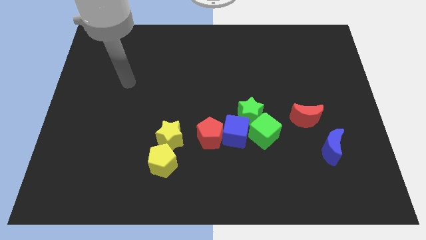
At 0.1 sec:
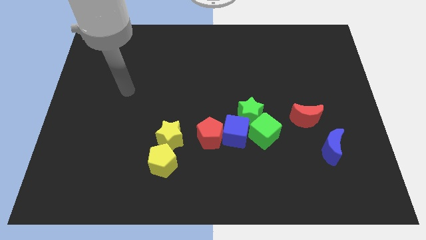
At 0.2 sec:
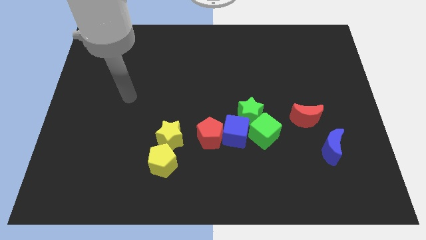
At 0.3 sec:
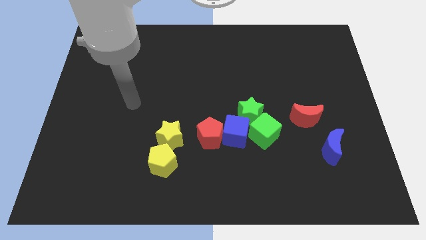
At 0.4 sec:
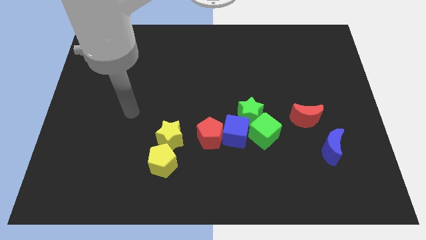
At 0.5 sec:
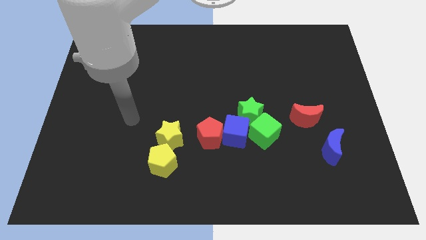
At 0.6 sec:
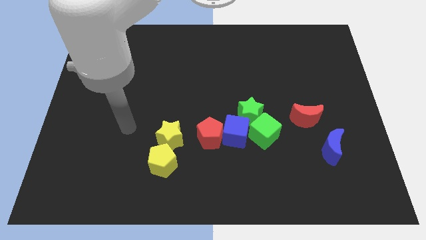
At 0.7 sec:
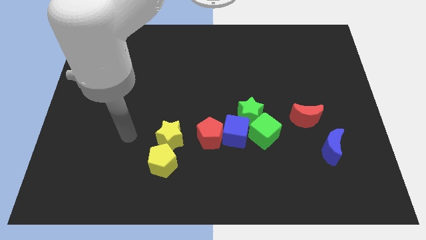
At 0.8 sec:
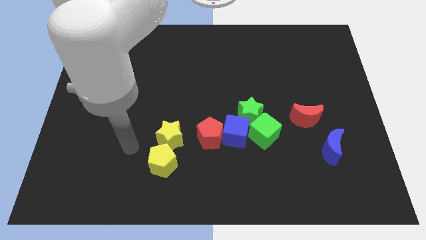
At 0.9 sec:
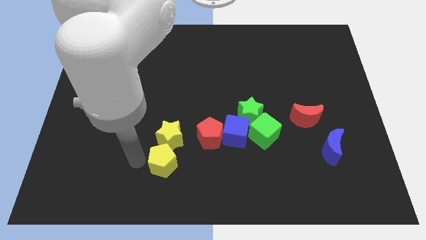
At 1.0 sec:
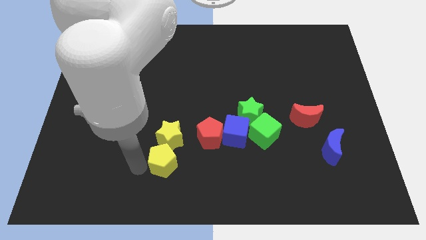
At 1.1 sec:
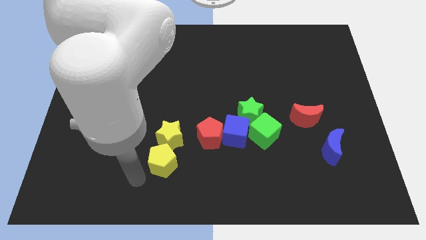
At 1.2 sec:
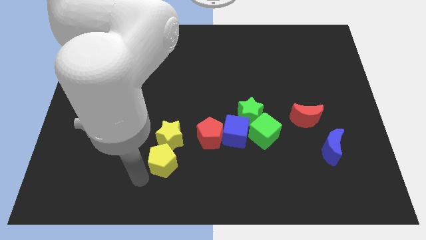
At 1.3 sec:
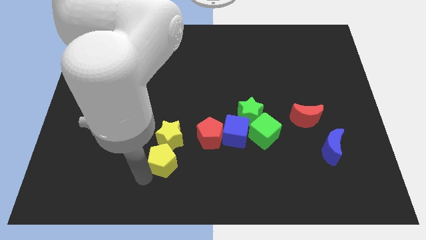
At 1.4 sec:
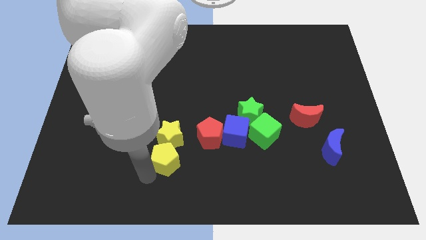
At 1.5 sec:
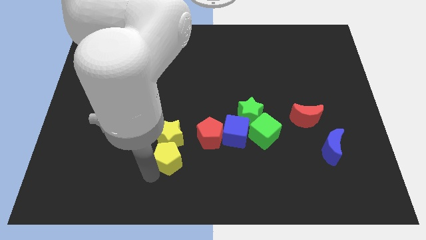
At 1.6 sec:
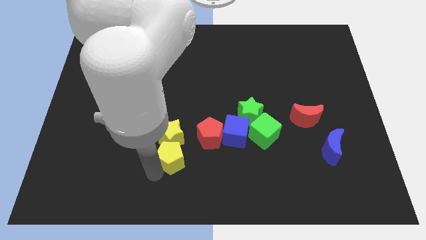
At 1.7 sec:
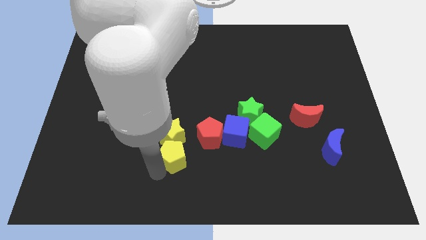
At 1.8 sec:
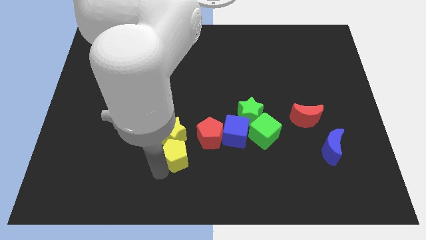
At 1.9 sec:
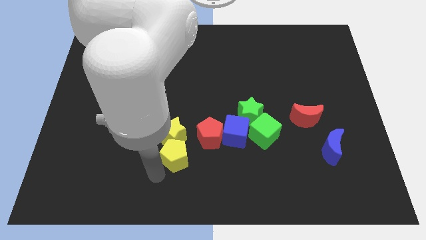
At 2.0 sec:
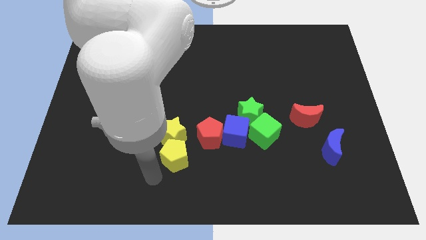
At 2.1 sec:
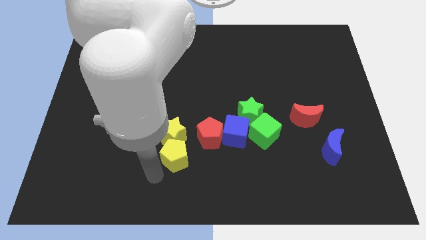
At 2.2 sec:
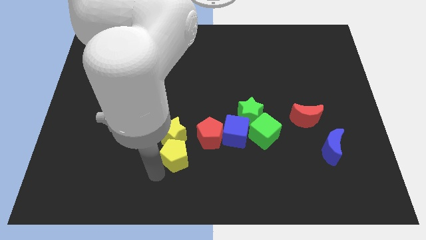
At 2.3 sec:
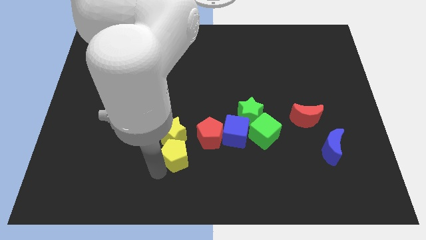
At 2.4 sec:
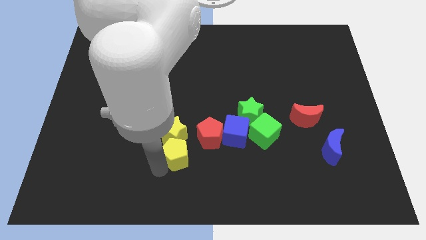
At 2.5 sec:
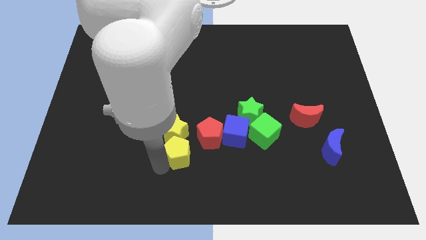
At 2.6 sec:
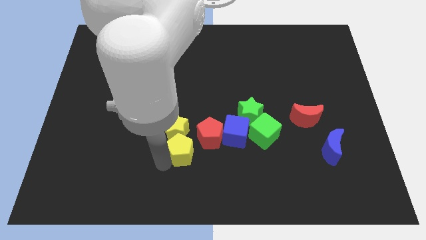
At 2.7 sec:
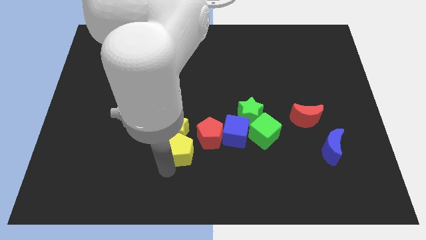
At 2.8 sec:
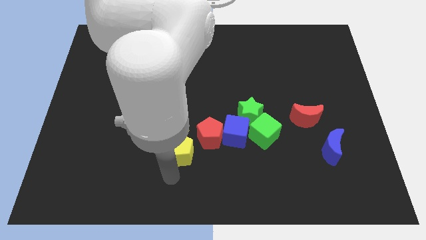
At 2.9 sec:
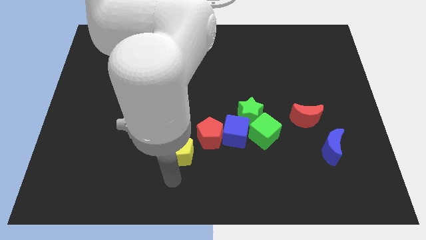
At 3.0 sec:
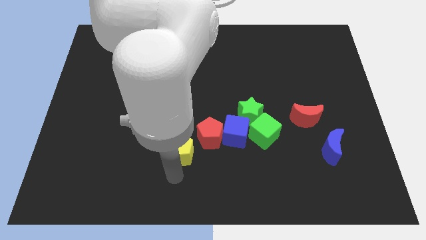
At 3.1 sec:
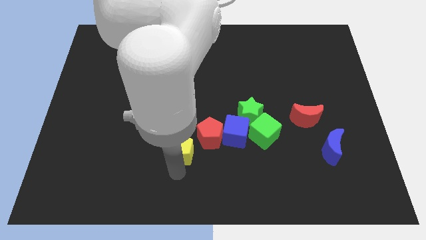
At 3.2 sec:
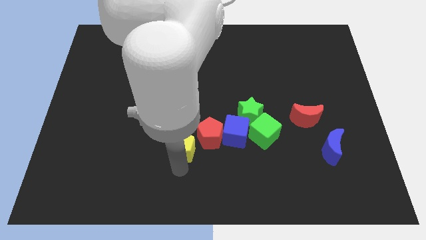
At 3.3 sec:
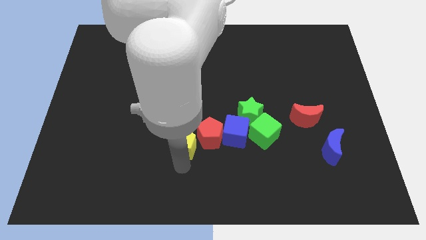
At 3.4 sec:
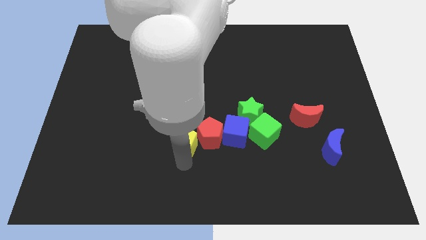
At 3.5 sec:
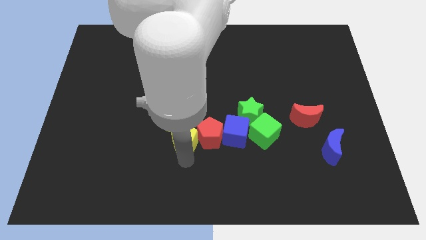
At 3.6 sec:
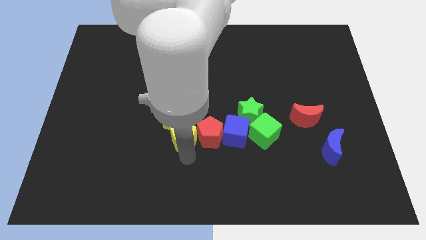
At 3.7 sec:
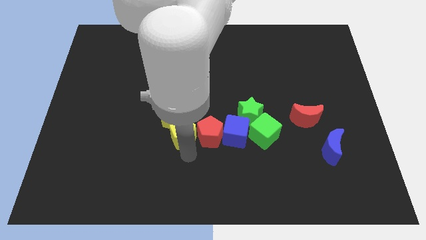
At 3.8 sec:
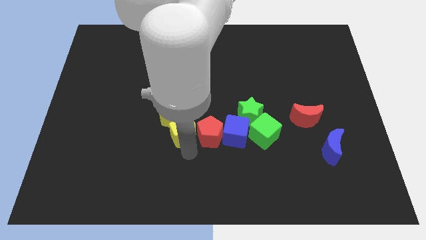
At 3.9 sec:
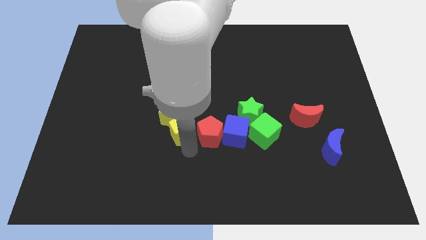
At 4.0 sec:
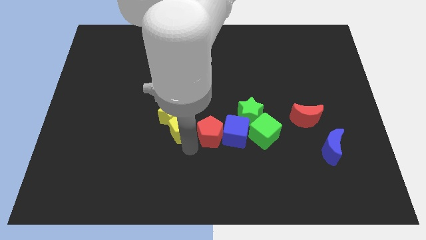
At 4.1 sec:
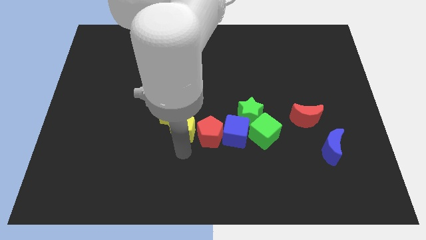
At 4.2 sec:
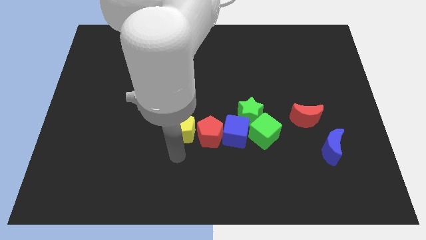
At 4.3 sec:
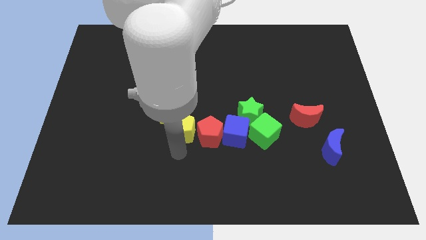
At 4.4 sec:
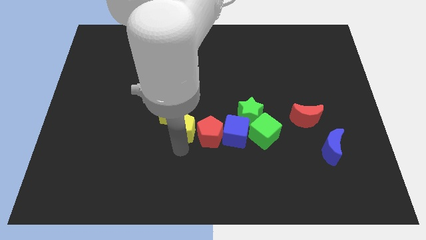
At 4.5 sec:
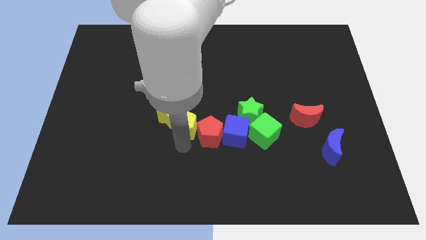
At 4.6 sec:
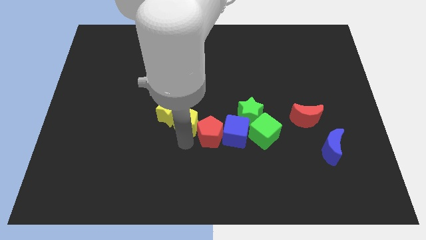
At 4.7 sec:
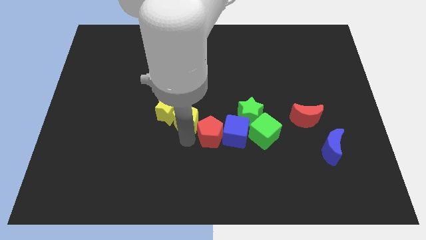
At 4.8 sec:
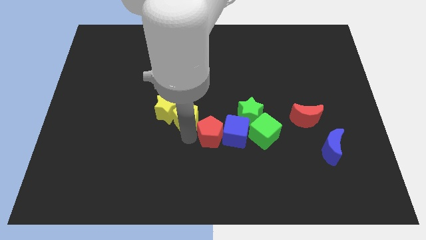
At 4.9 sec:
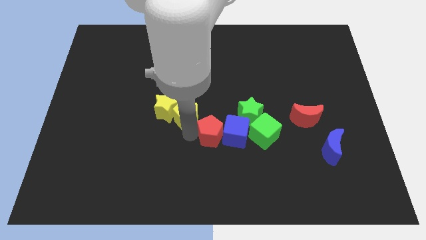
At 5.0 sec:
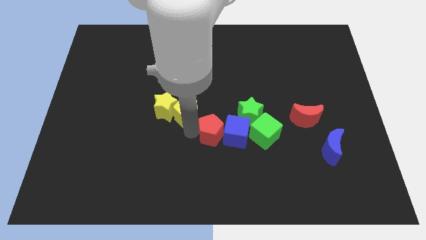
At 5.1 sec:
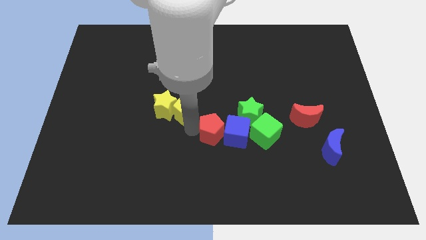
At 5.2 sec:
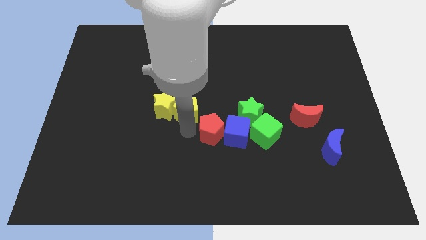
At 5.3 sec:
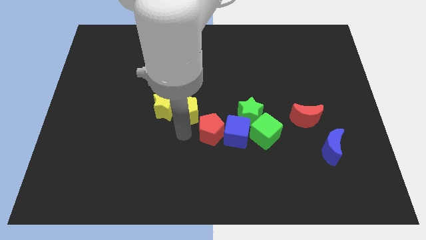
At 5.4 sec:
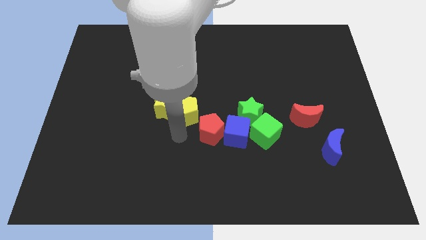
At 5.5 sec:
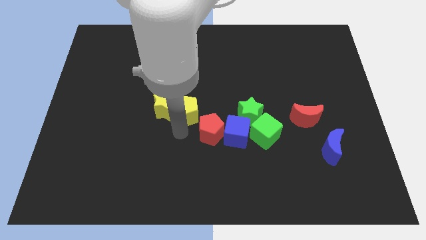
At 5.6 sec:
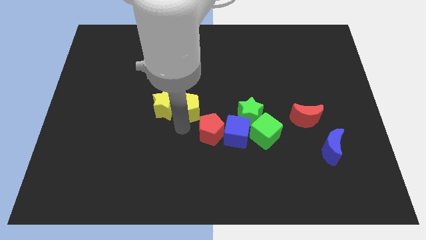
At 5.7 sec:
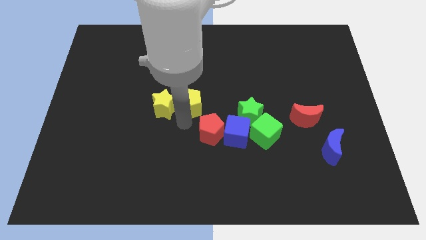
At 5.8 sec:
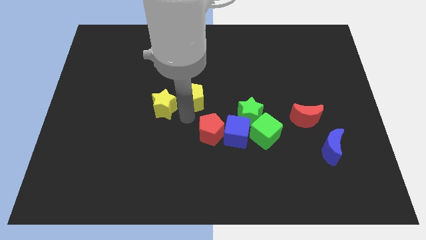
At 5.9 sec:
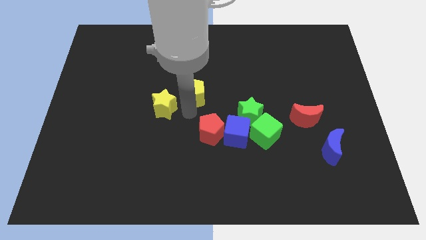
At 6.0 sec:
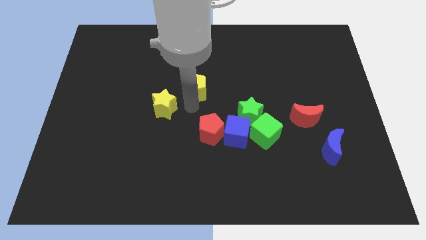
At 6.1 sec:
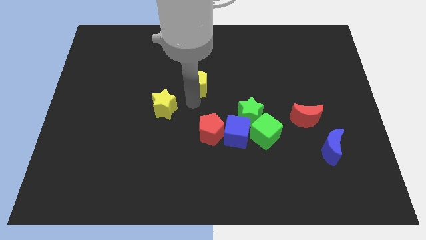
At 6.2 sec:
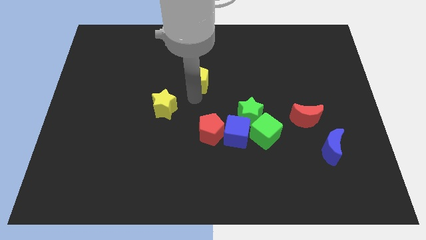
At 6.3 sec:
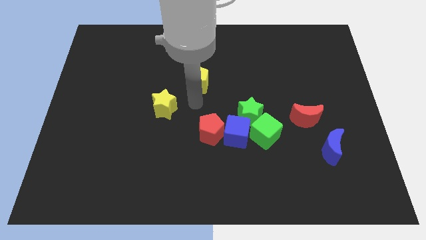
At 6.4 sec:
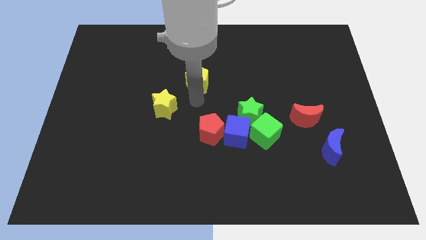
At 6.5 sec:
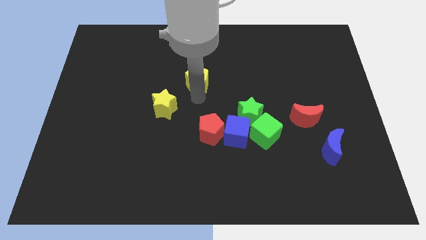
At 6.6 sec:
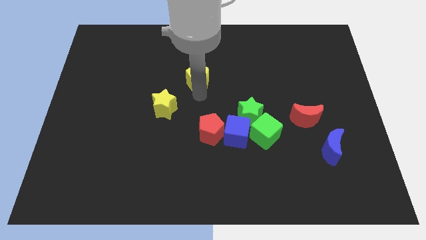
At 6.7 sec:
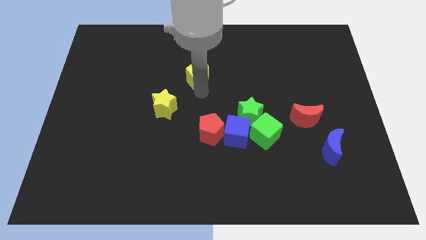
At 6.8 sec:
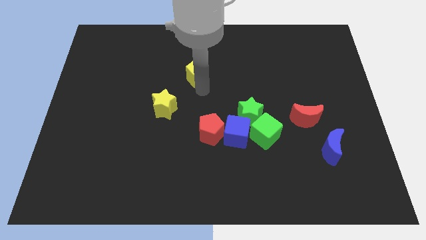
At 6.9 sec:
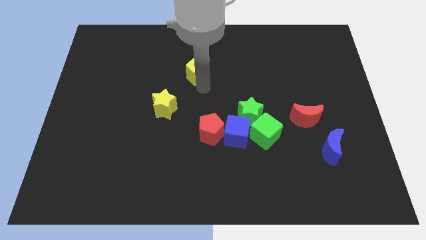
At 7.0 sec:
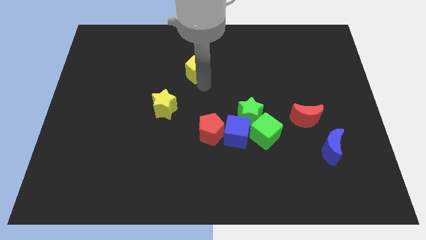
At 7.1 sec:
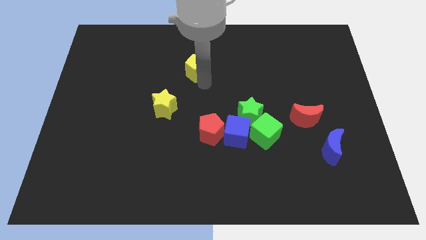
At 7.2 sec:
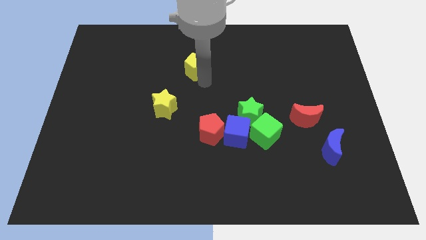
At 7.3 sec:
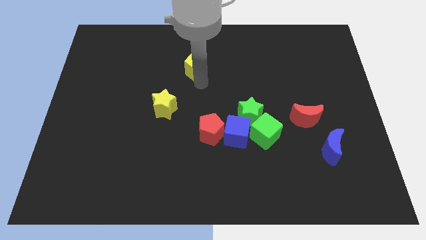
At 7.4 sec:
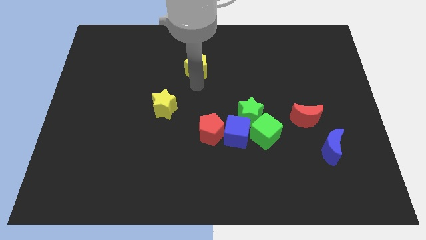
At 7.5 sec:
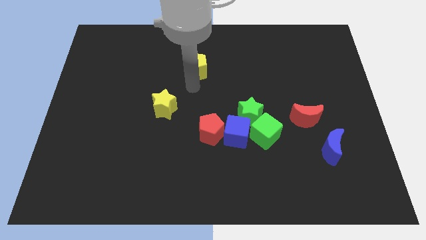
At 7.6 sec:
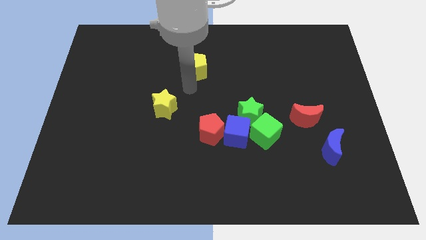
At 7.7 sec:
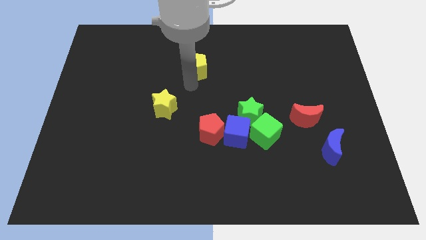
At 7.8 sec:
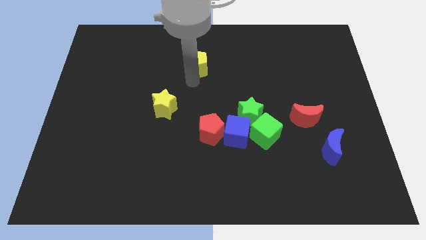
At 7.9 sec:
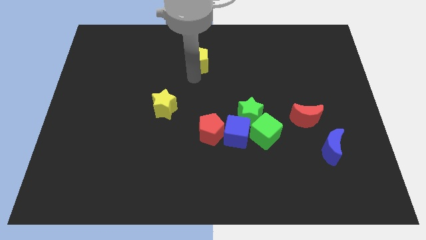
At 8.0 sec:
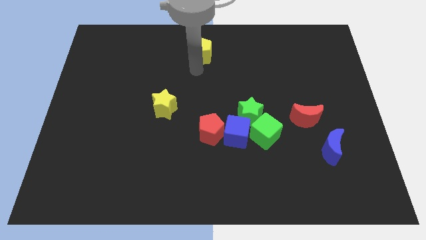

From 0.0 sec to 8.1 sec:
push the yellow pentagon to the top
